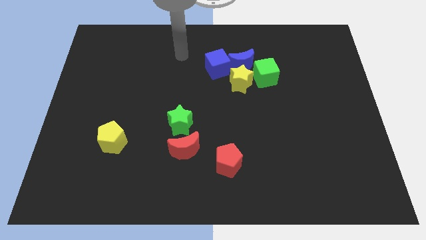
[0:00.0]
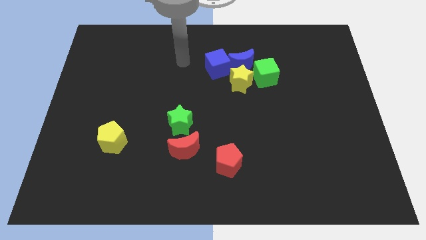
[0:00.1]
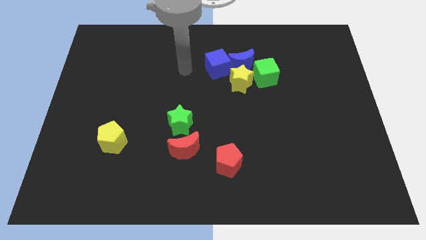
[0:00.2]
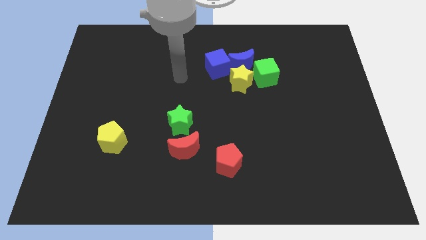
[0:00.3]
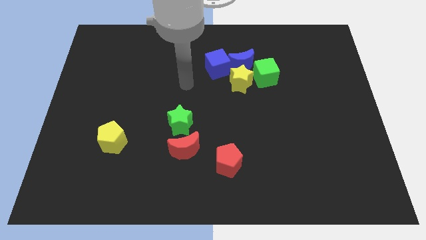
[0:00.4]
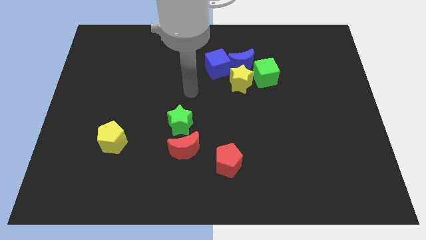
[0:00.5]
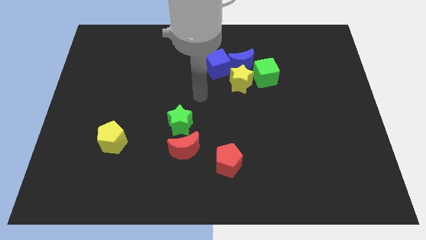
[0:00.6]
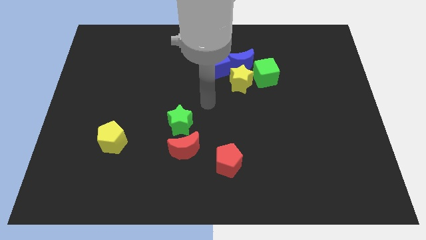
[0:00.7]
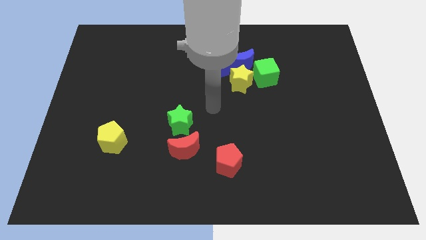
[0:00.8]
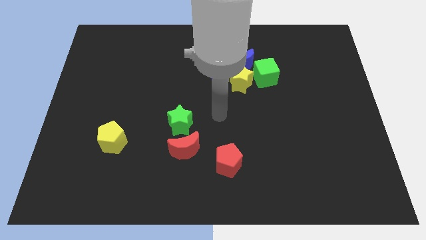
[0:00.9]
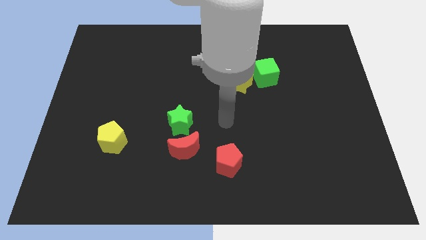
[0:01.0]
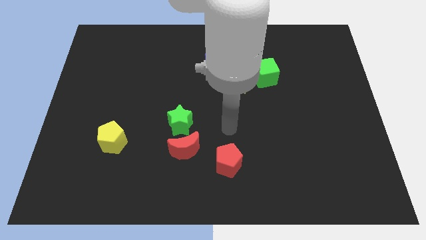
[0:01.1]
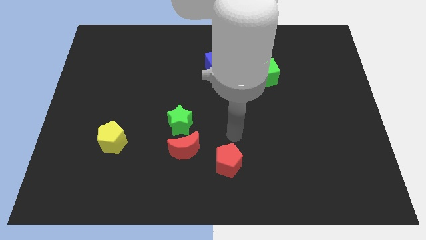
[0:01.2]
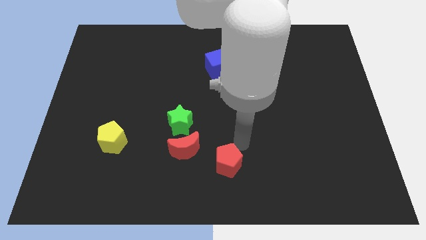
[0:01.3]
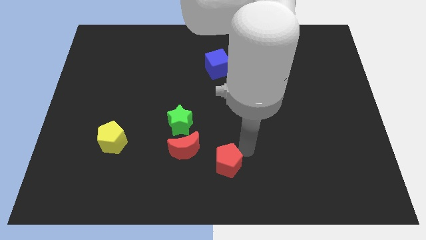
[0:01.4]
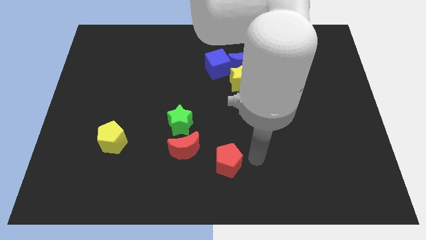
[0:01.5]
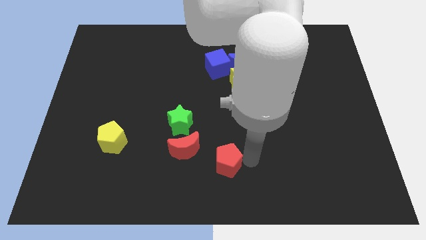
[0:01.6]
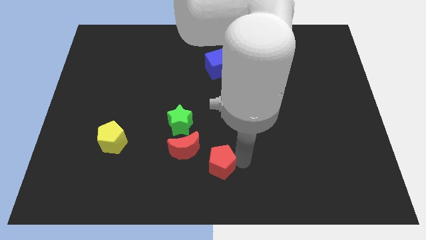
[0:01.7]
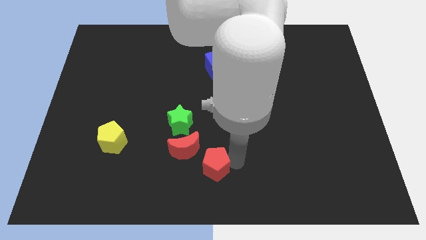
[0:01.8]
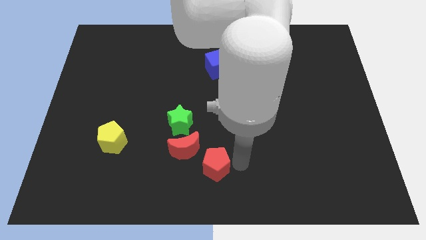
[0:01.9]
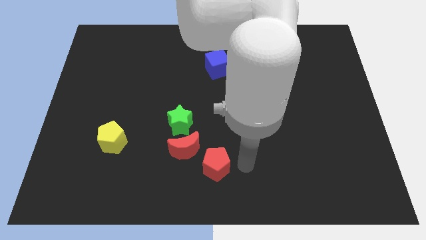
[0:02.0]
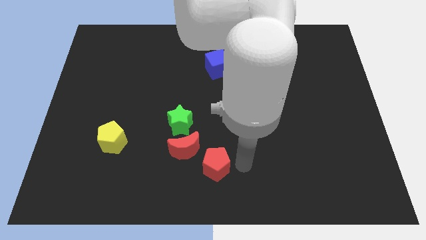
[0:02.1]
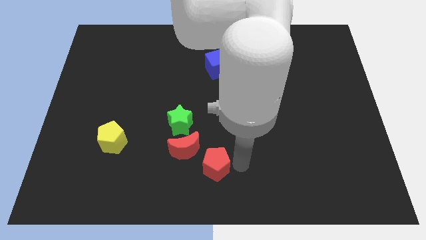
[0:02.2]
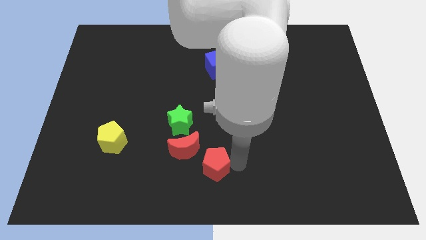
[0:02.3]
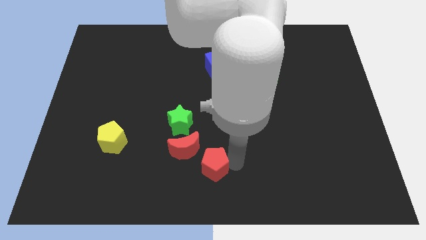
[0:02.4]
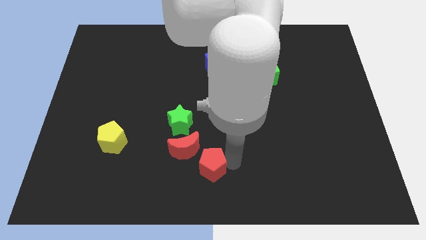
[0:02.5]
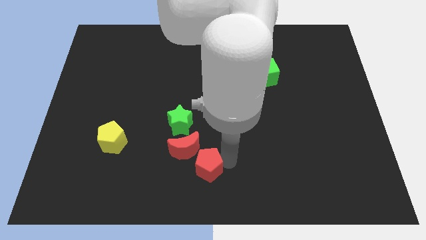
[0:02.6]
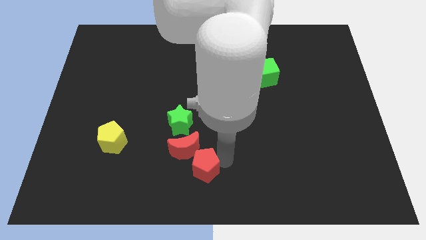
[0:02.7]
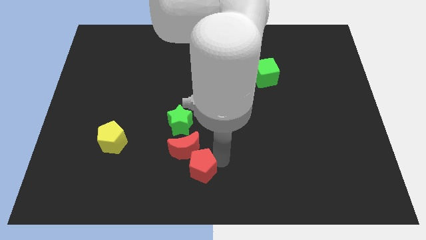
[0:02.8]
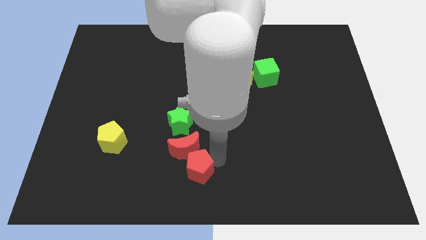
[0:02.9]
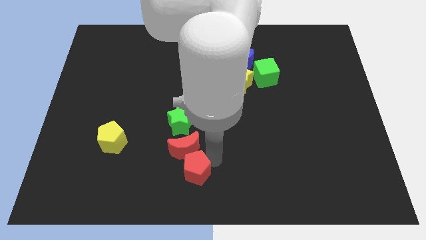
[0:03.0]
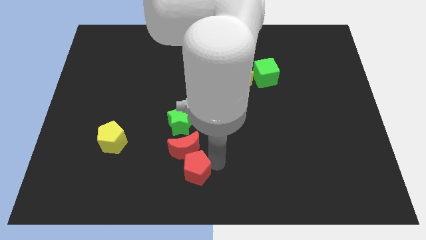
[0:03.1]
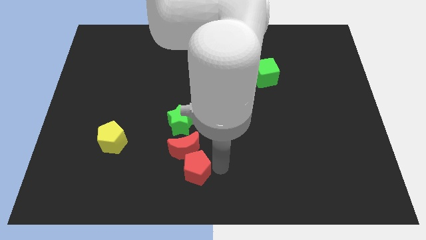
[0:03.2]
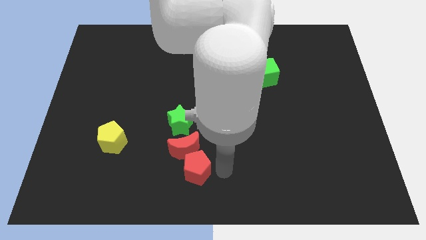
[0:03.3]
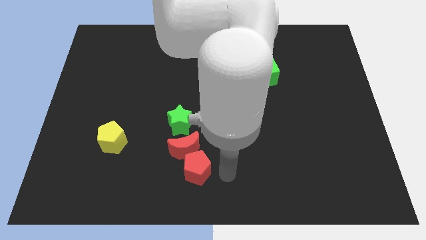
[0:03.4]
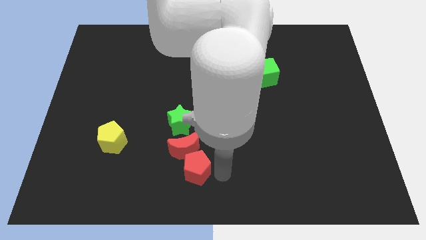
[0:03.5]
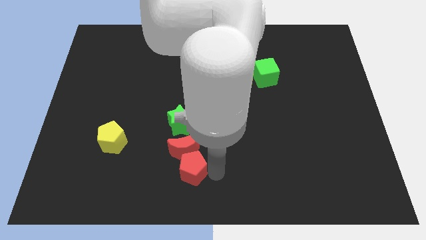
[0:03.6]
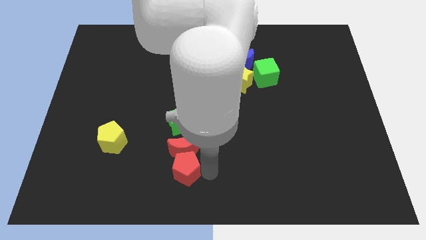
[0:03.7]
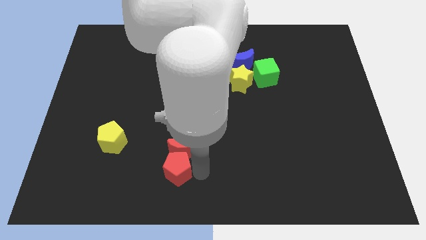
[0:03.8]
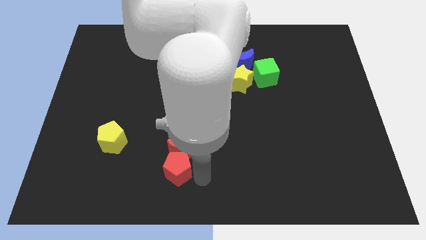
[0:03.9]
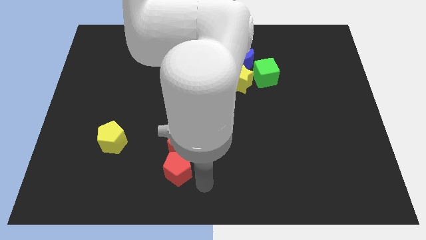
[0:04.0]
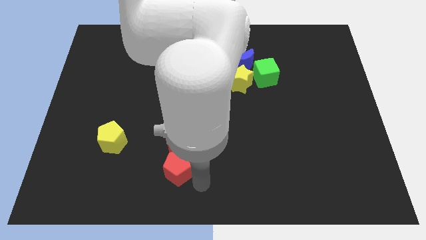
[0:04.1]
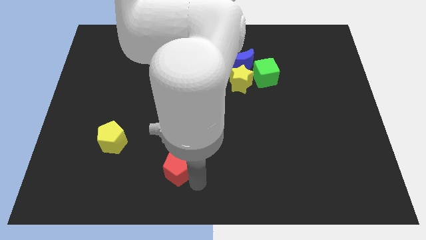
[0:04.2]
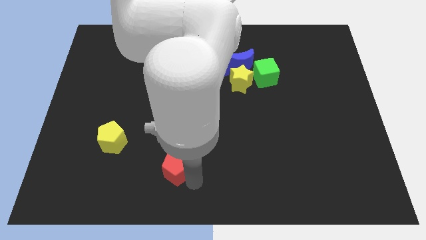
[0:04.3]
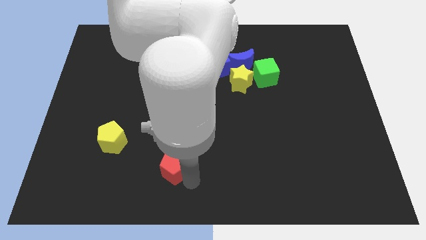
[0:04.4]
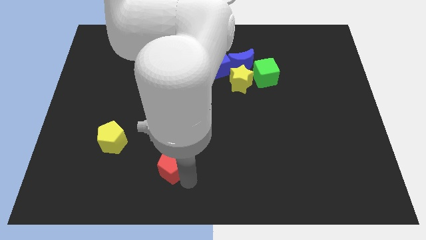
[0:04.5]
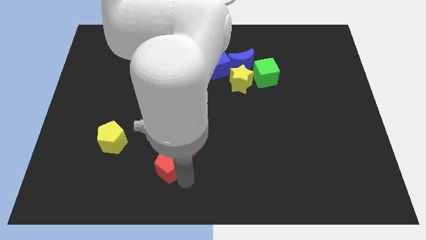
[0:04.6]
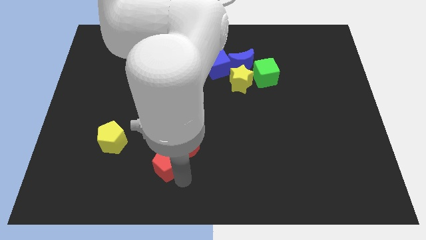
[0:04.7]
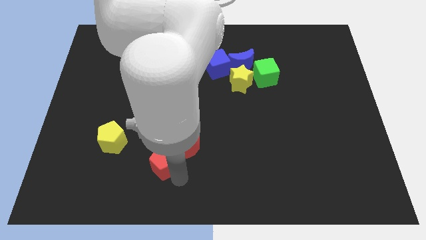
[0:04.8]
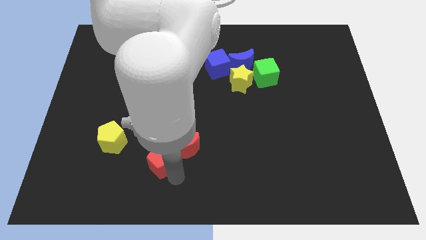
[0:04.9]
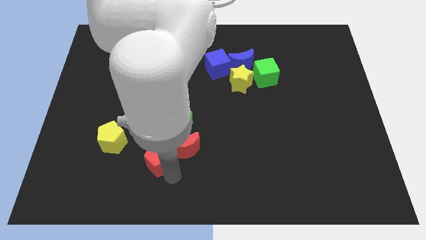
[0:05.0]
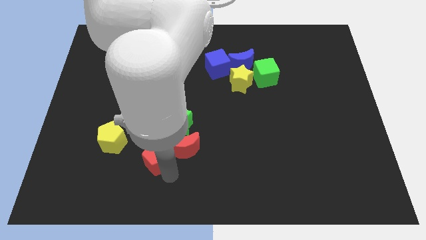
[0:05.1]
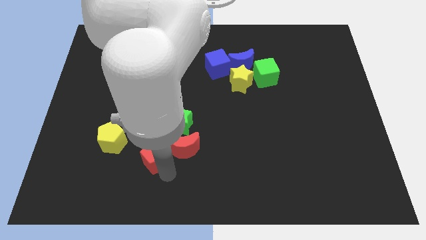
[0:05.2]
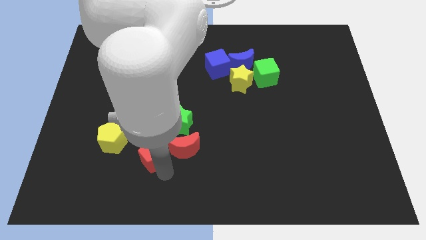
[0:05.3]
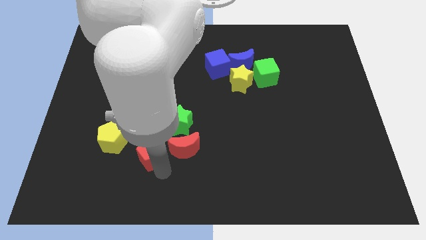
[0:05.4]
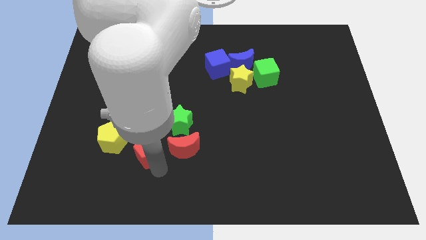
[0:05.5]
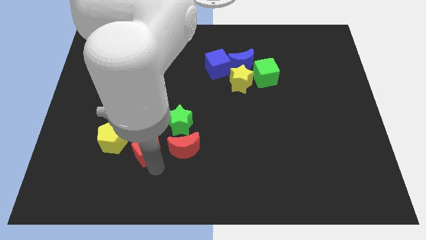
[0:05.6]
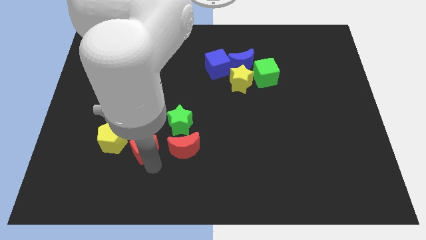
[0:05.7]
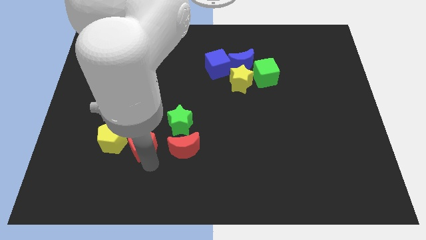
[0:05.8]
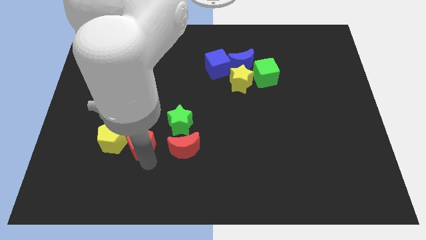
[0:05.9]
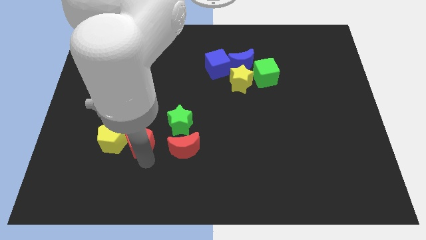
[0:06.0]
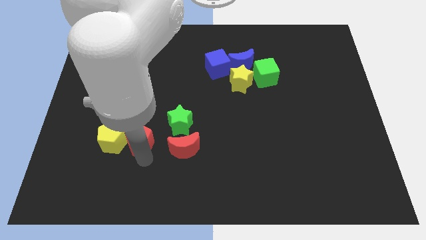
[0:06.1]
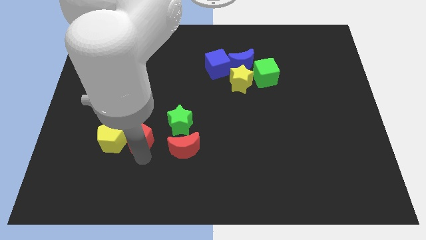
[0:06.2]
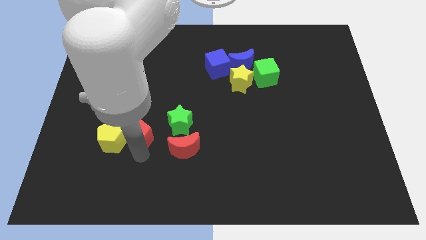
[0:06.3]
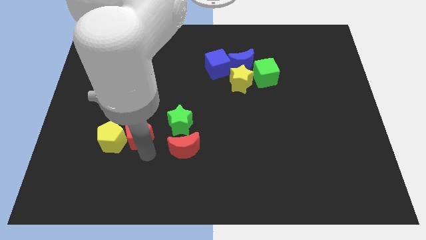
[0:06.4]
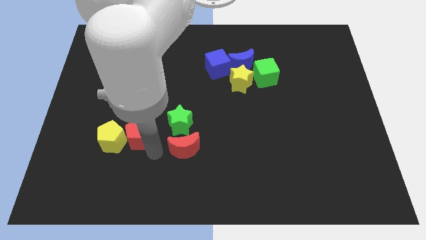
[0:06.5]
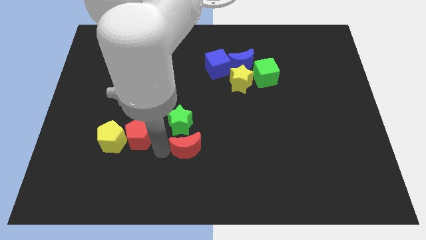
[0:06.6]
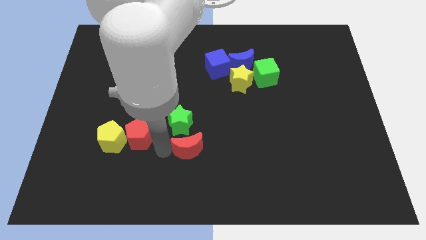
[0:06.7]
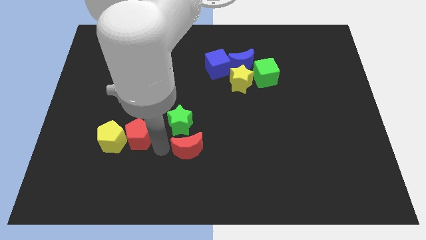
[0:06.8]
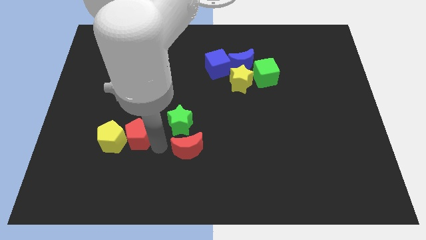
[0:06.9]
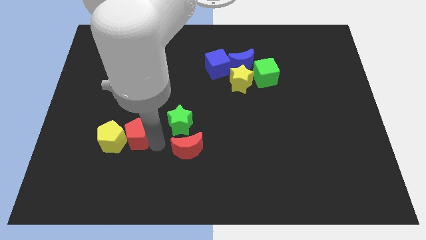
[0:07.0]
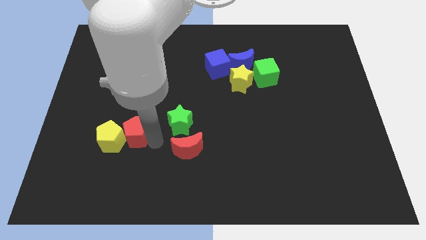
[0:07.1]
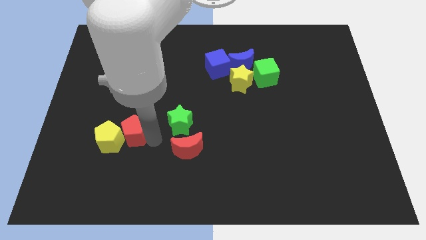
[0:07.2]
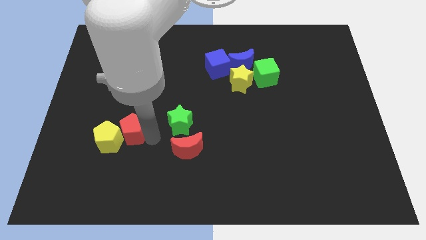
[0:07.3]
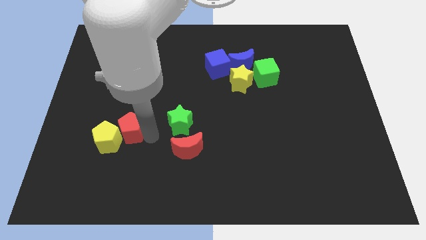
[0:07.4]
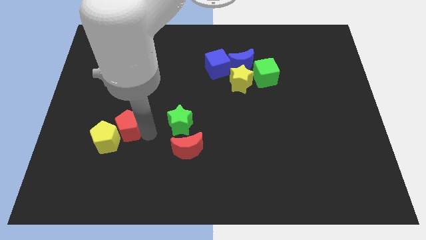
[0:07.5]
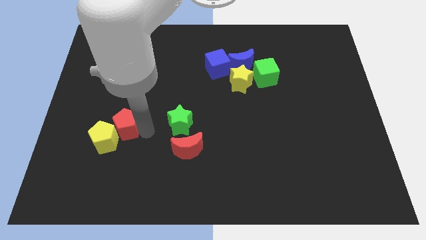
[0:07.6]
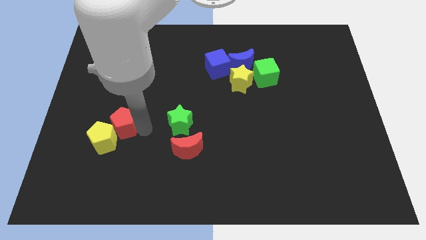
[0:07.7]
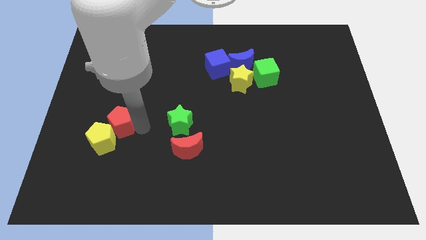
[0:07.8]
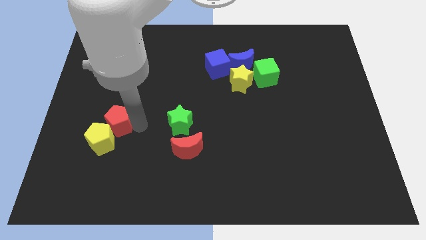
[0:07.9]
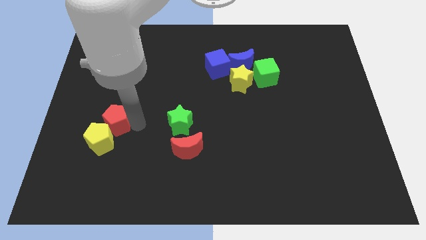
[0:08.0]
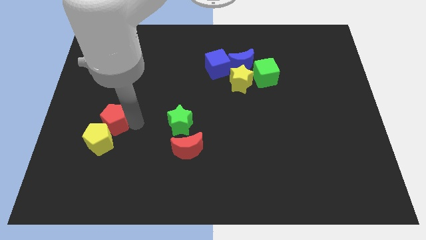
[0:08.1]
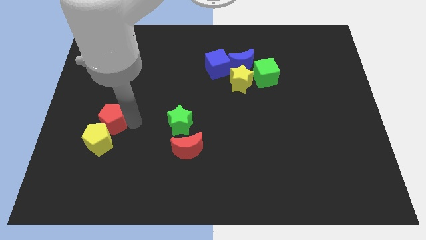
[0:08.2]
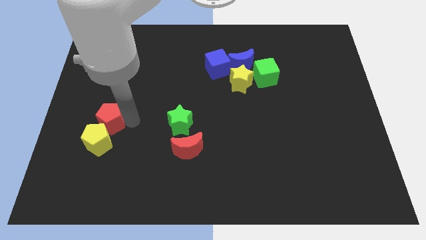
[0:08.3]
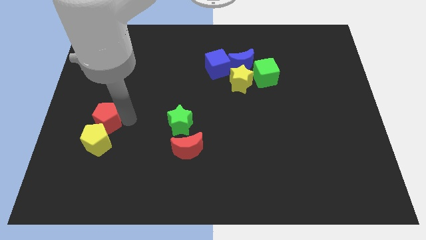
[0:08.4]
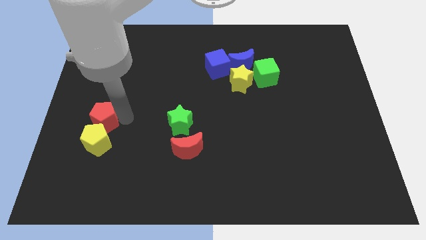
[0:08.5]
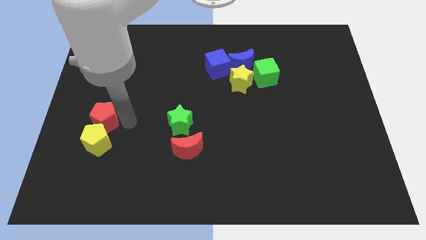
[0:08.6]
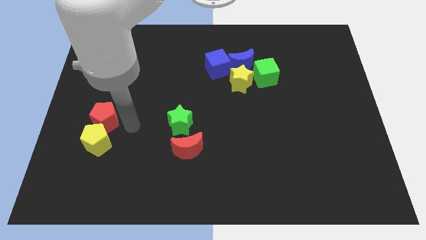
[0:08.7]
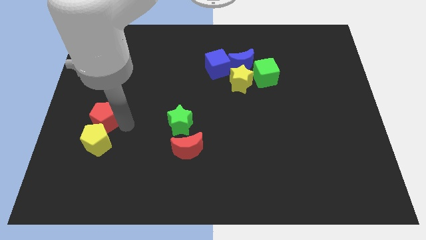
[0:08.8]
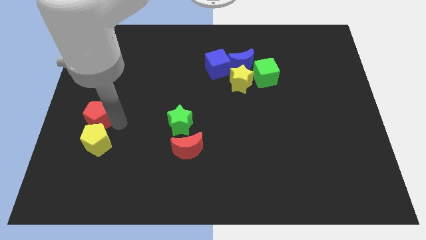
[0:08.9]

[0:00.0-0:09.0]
slide the red pentagon to the left side
